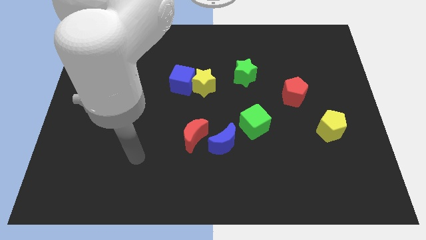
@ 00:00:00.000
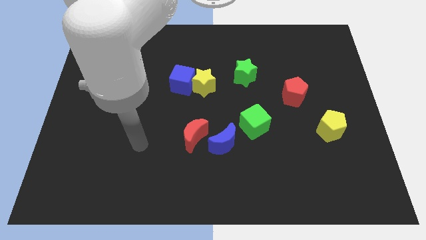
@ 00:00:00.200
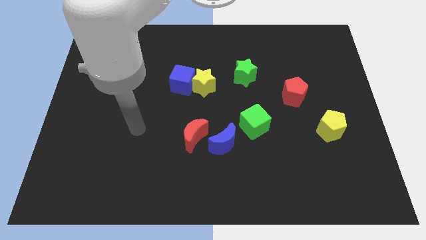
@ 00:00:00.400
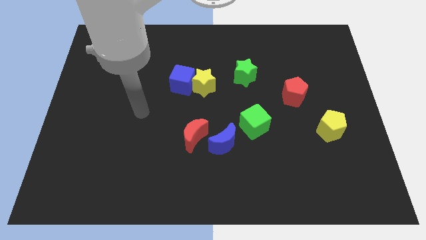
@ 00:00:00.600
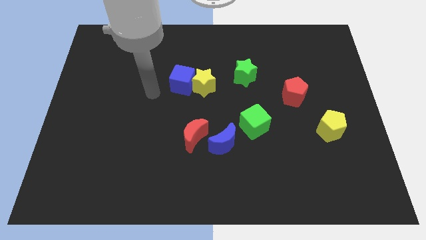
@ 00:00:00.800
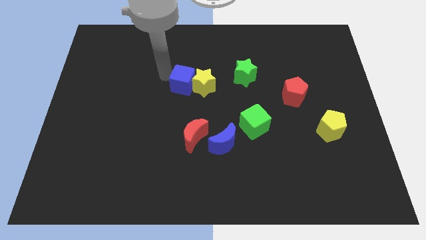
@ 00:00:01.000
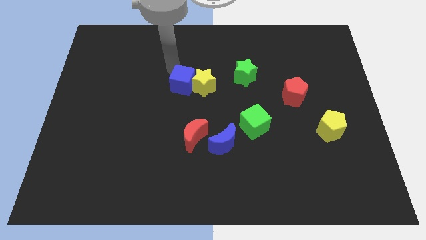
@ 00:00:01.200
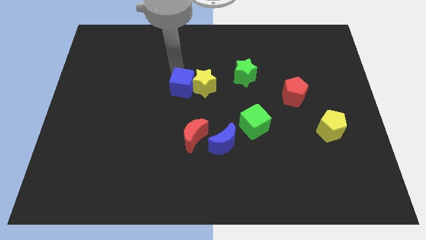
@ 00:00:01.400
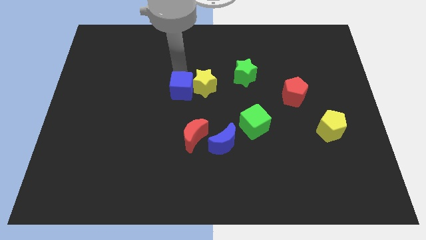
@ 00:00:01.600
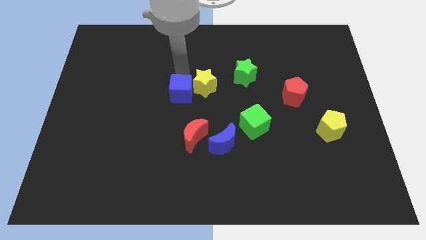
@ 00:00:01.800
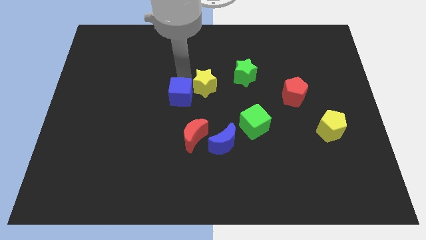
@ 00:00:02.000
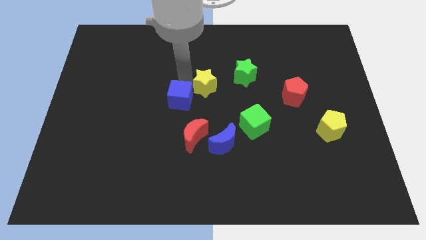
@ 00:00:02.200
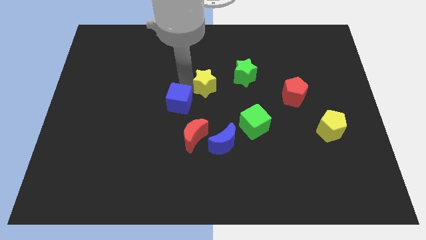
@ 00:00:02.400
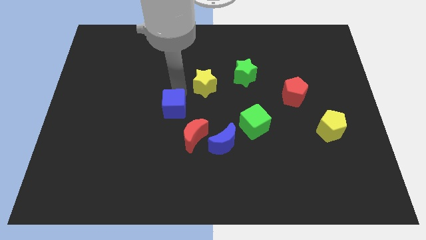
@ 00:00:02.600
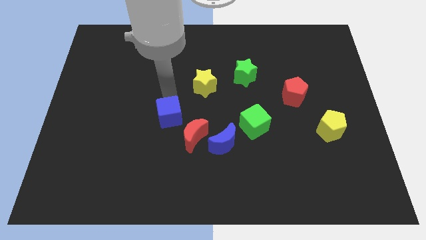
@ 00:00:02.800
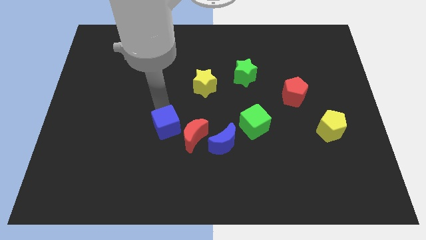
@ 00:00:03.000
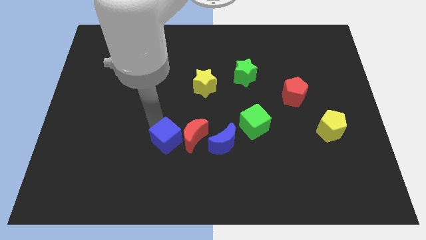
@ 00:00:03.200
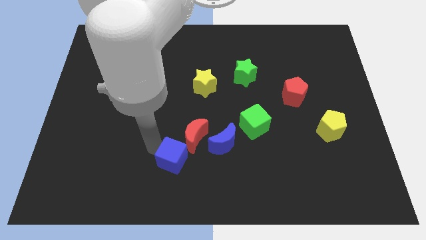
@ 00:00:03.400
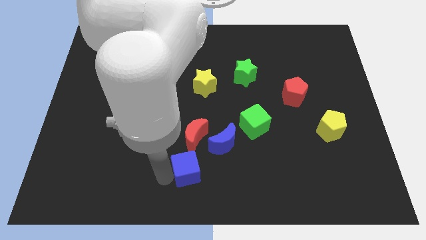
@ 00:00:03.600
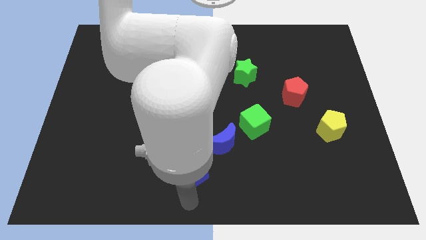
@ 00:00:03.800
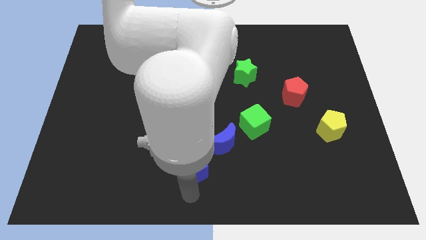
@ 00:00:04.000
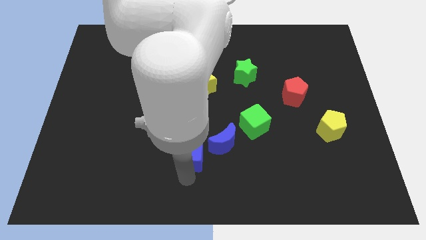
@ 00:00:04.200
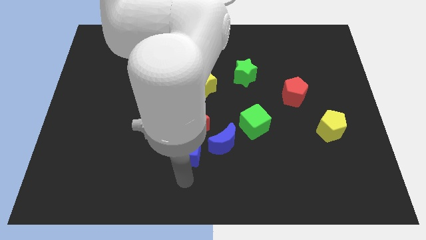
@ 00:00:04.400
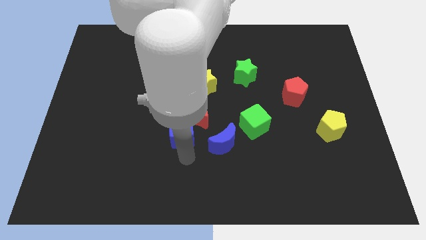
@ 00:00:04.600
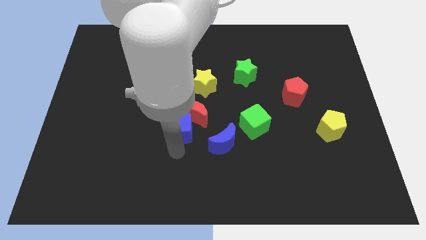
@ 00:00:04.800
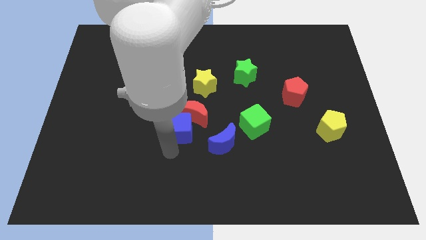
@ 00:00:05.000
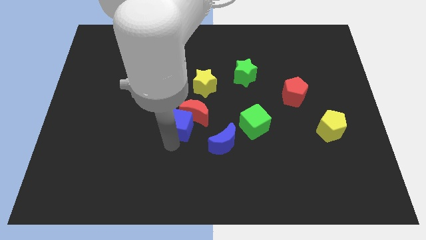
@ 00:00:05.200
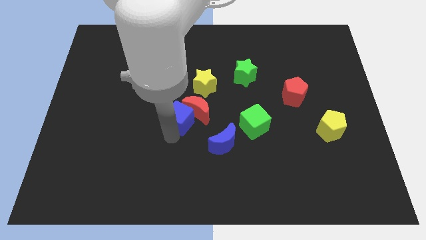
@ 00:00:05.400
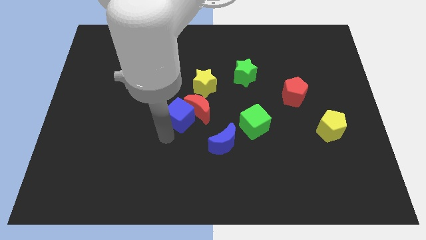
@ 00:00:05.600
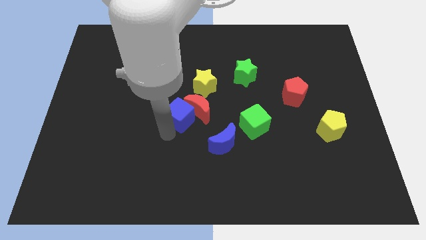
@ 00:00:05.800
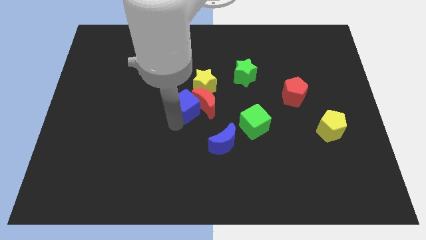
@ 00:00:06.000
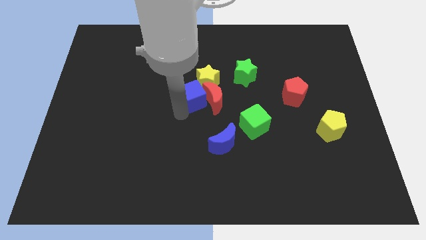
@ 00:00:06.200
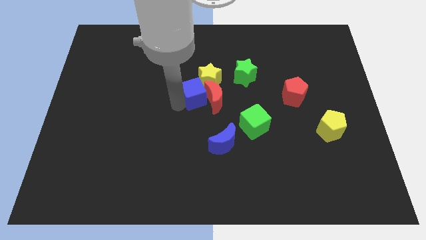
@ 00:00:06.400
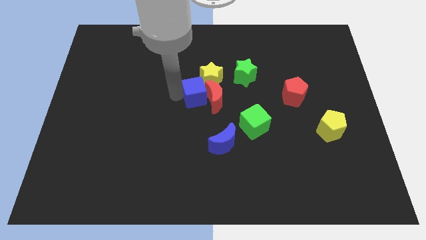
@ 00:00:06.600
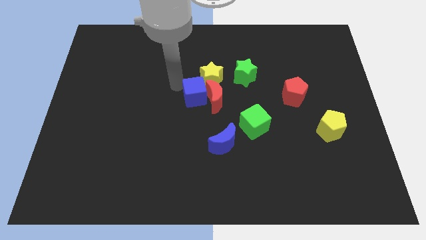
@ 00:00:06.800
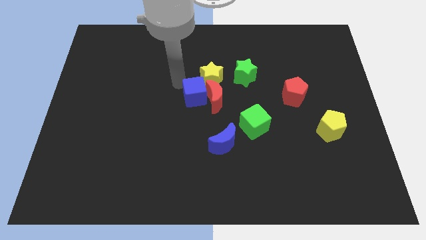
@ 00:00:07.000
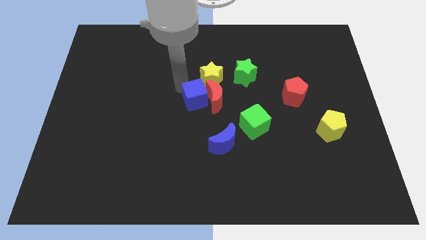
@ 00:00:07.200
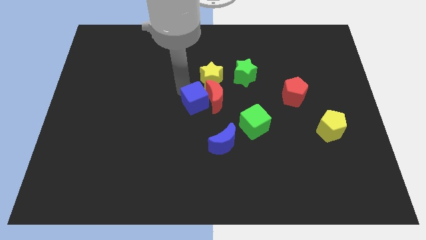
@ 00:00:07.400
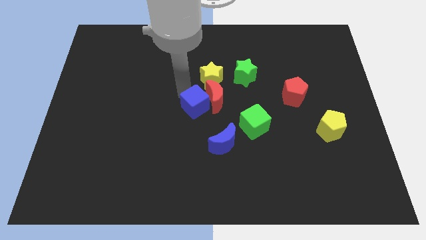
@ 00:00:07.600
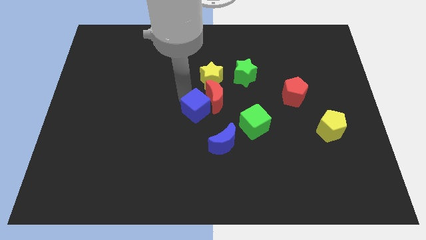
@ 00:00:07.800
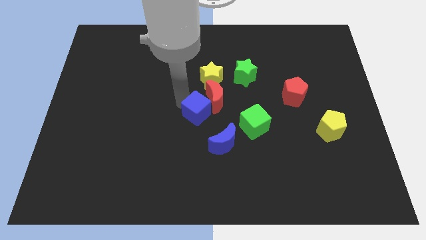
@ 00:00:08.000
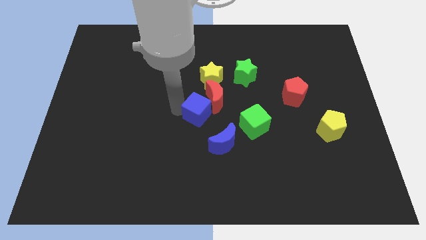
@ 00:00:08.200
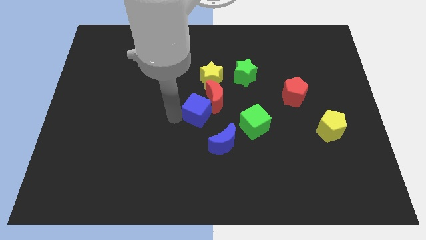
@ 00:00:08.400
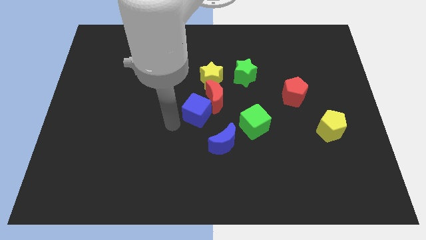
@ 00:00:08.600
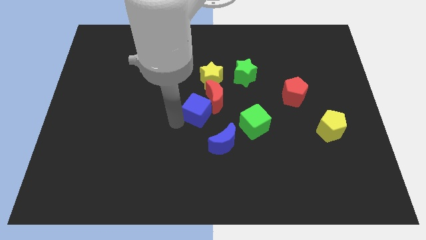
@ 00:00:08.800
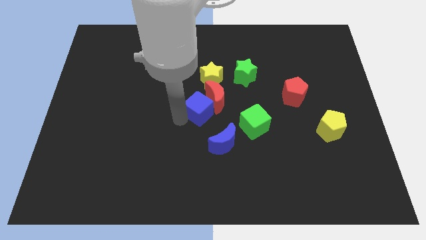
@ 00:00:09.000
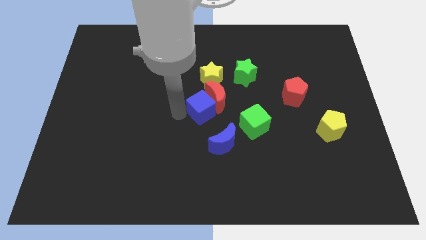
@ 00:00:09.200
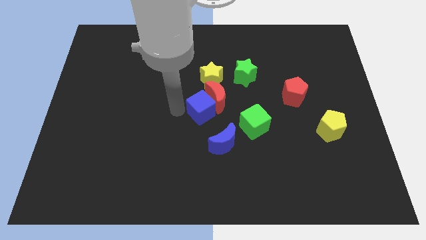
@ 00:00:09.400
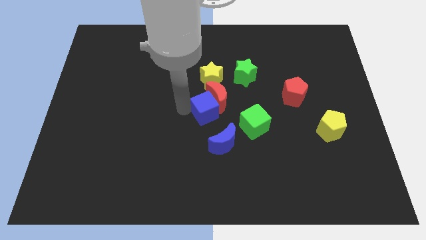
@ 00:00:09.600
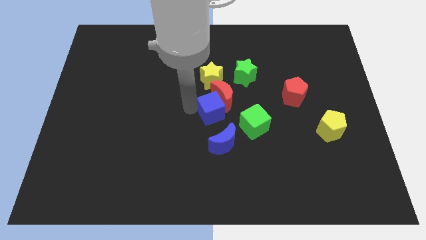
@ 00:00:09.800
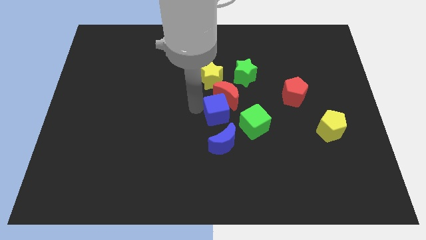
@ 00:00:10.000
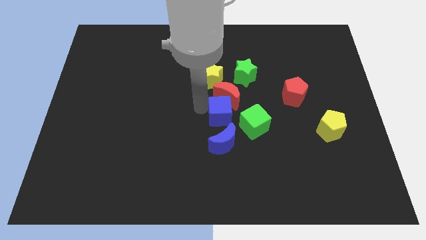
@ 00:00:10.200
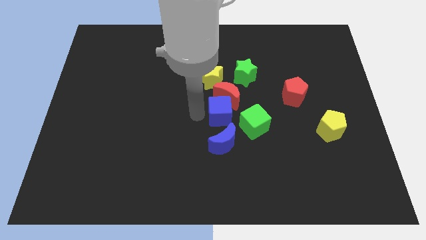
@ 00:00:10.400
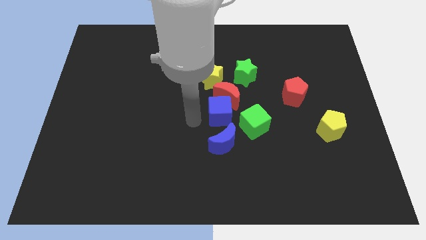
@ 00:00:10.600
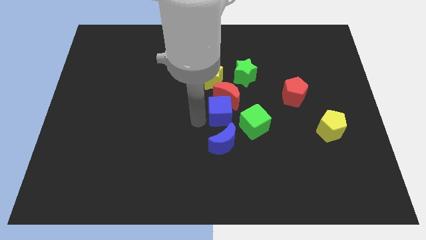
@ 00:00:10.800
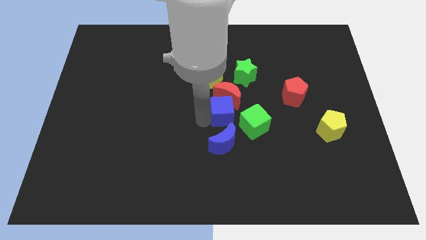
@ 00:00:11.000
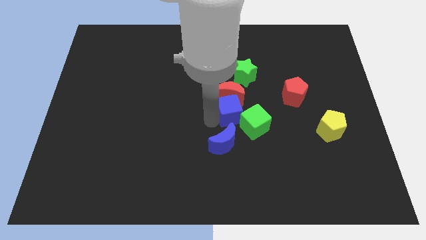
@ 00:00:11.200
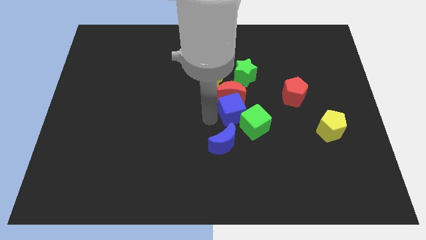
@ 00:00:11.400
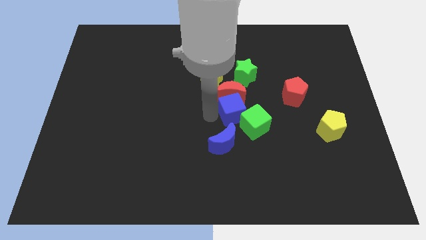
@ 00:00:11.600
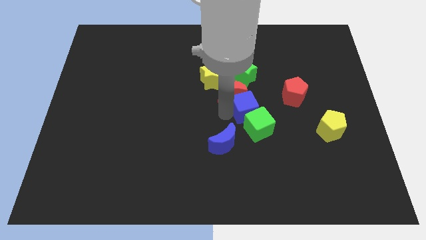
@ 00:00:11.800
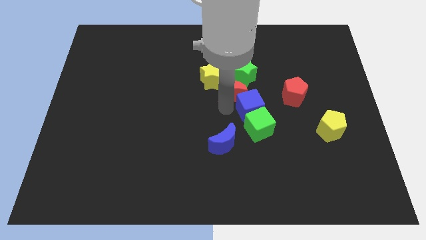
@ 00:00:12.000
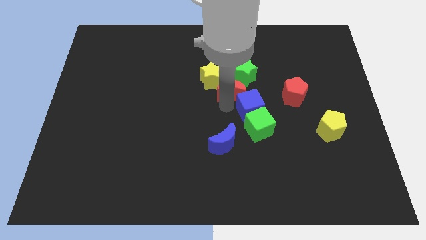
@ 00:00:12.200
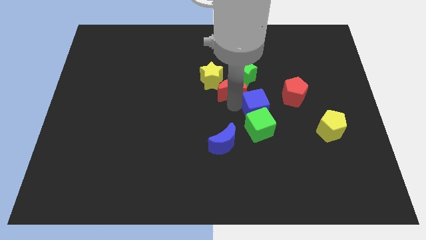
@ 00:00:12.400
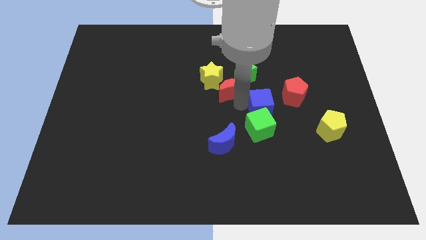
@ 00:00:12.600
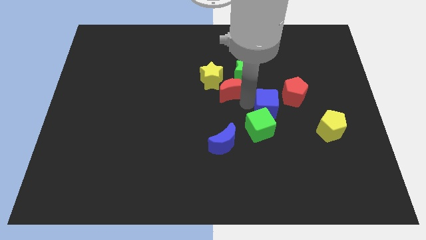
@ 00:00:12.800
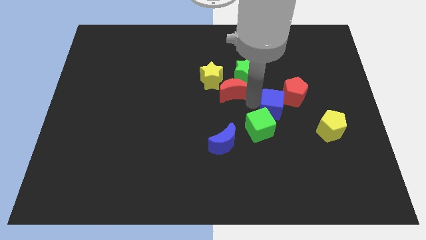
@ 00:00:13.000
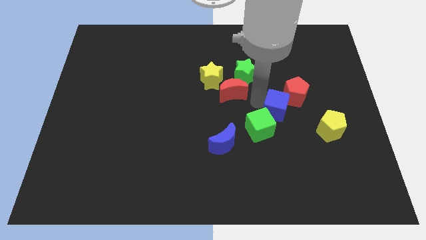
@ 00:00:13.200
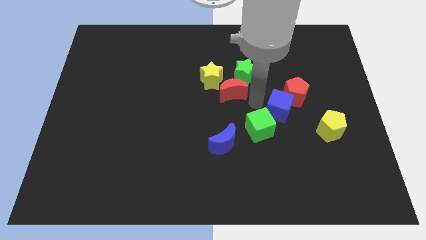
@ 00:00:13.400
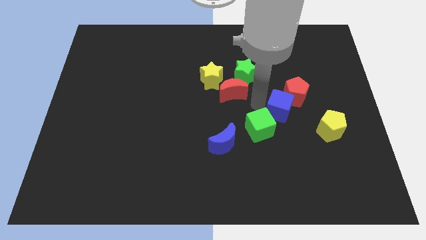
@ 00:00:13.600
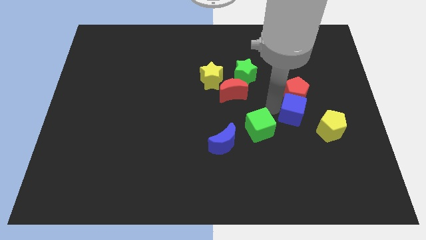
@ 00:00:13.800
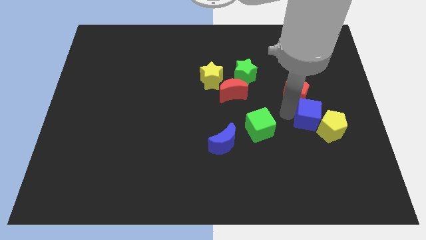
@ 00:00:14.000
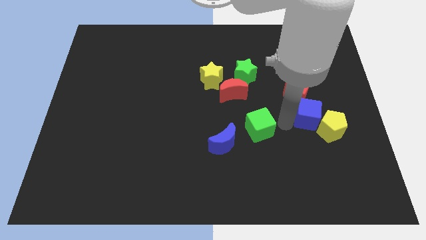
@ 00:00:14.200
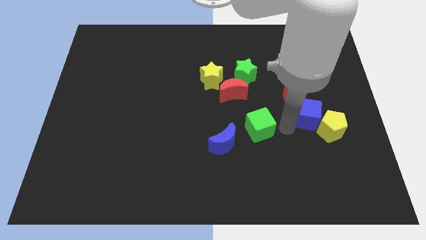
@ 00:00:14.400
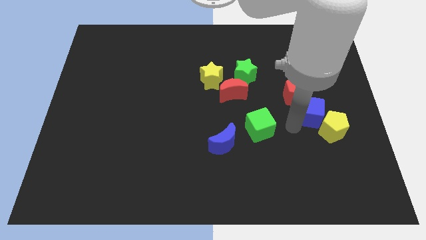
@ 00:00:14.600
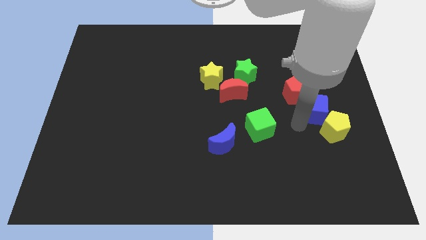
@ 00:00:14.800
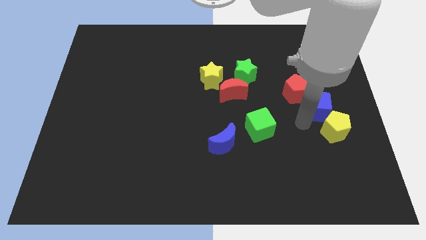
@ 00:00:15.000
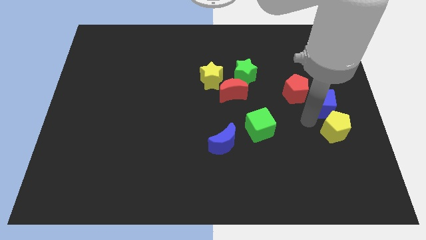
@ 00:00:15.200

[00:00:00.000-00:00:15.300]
slide the blue cube to the right side
